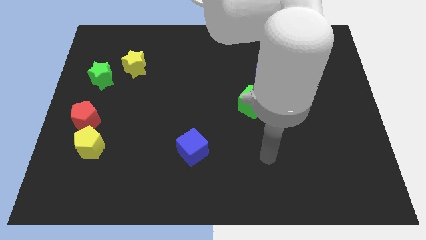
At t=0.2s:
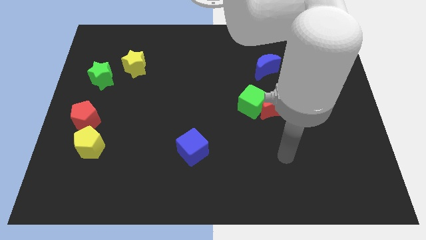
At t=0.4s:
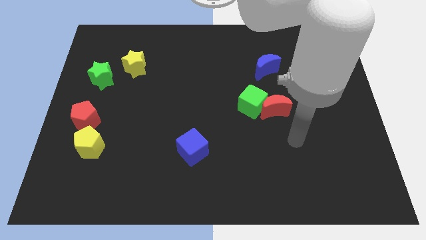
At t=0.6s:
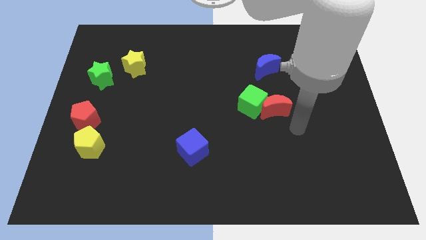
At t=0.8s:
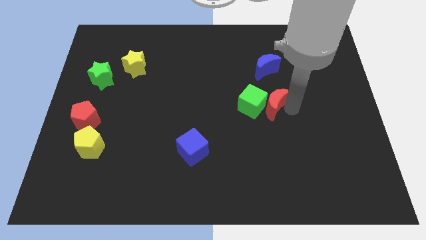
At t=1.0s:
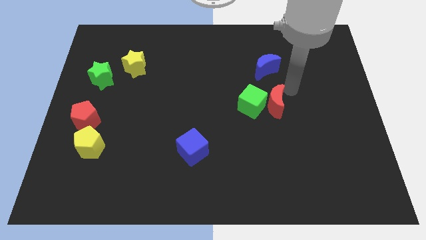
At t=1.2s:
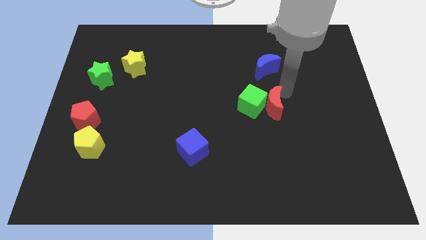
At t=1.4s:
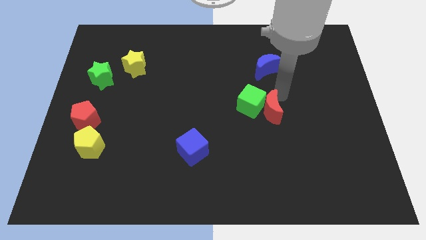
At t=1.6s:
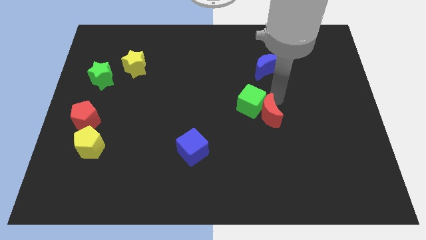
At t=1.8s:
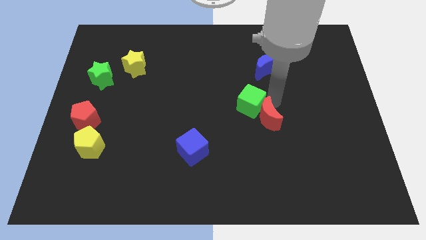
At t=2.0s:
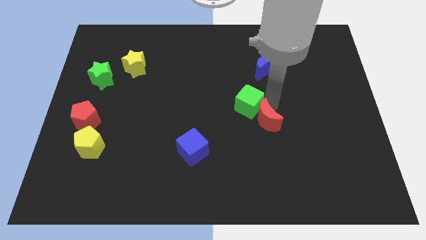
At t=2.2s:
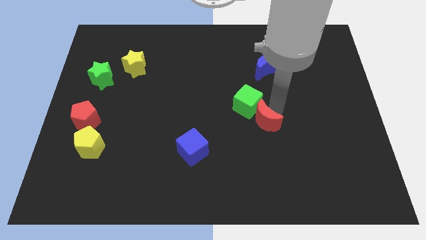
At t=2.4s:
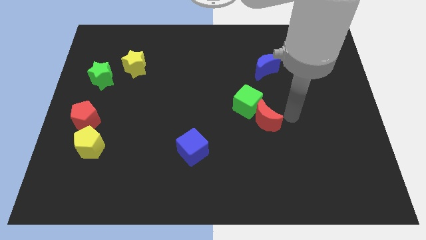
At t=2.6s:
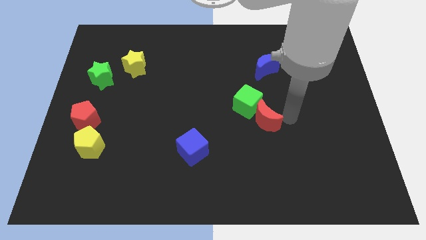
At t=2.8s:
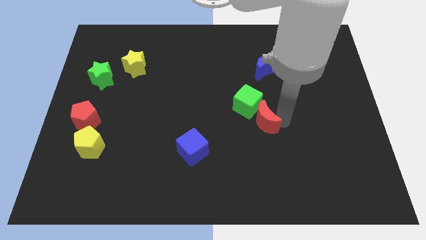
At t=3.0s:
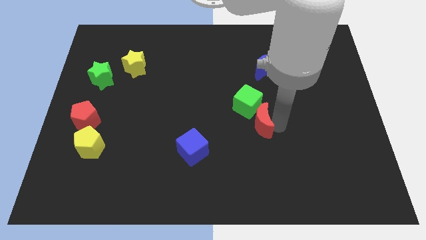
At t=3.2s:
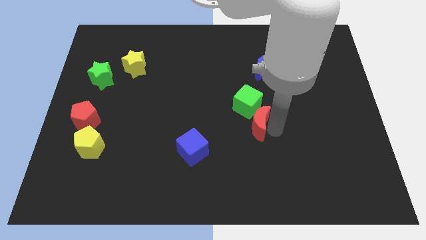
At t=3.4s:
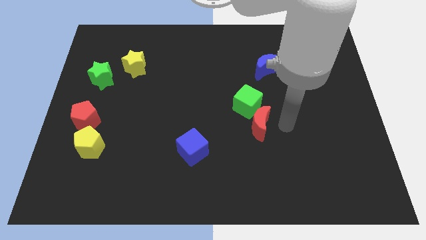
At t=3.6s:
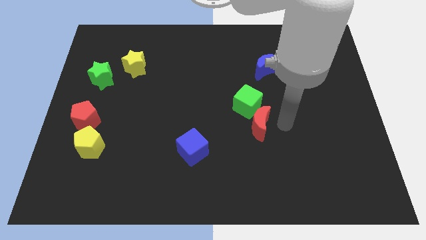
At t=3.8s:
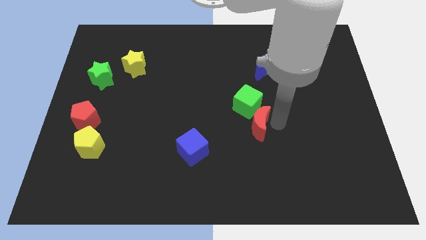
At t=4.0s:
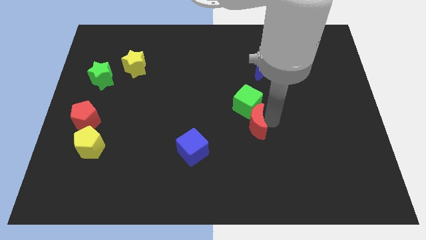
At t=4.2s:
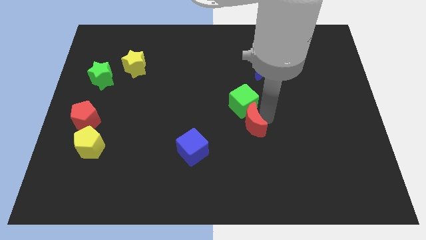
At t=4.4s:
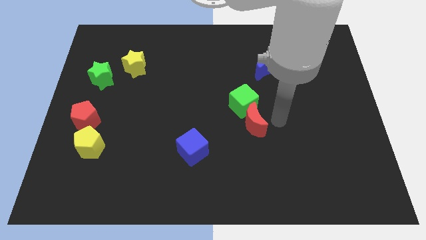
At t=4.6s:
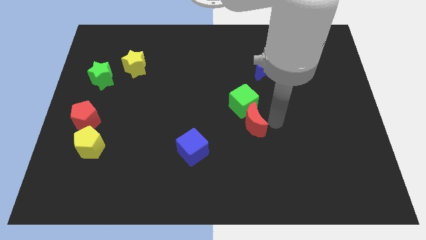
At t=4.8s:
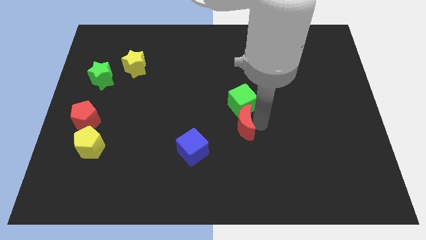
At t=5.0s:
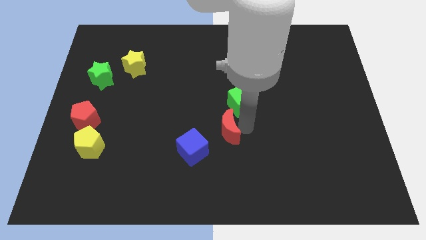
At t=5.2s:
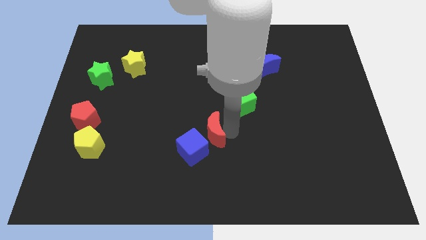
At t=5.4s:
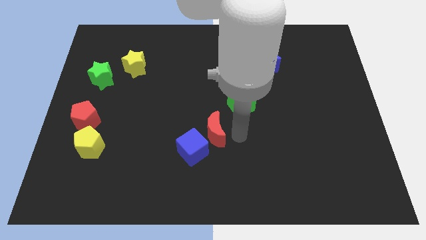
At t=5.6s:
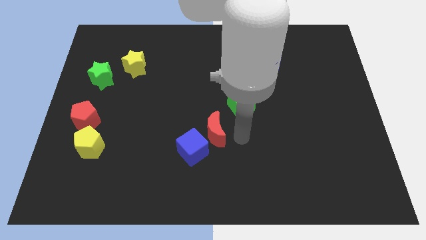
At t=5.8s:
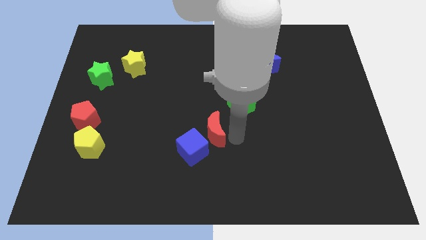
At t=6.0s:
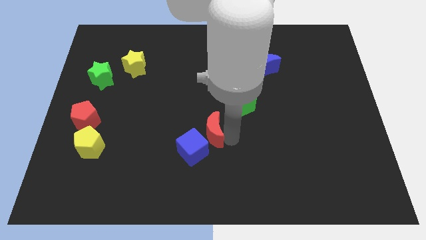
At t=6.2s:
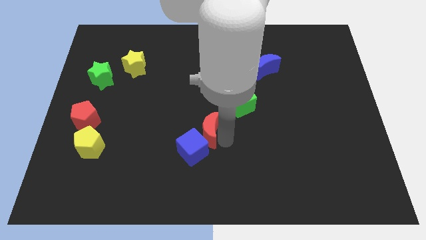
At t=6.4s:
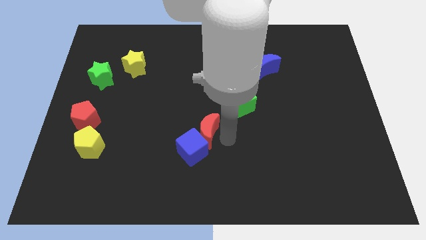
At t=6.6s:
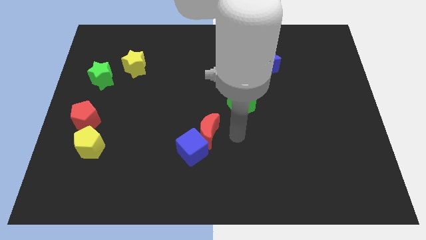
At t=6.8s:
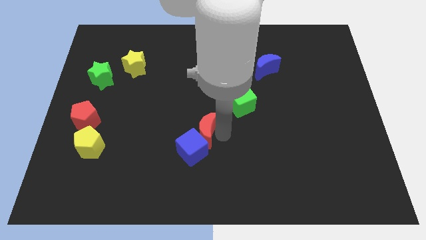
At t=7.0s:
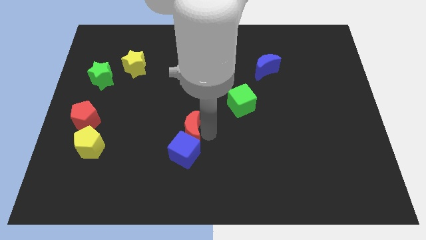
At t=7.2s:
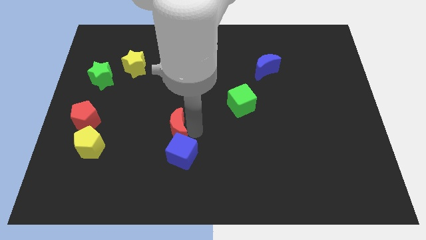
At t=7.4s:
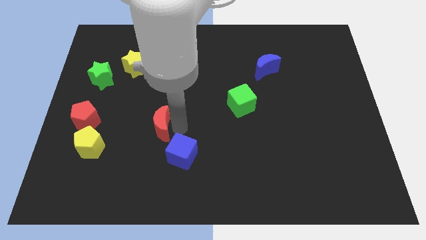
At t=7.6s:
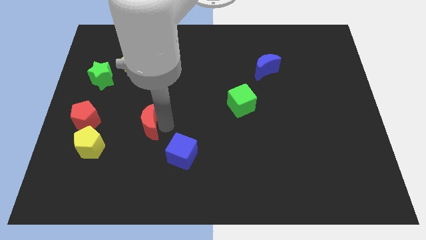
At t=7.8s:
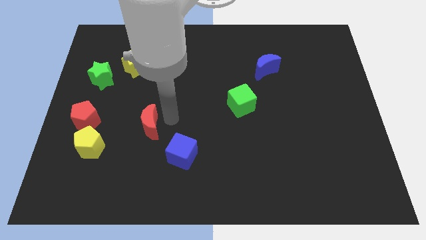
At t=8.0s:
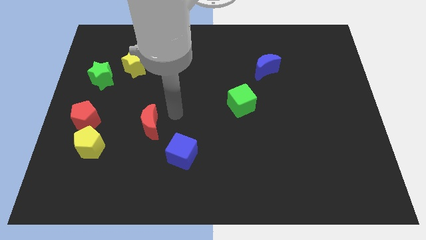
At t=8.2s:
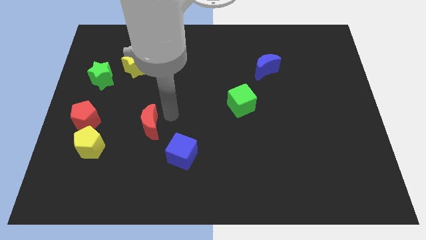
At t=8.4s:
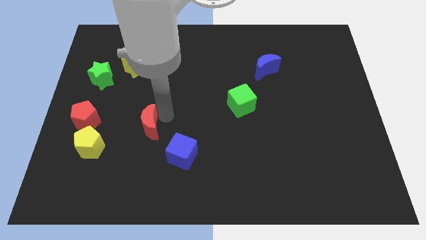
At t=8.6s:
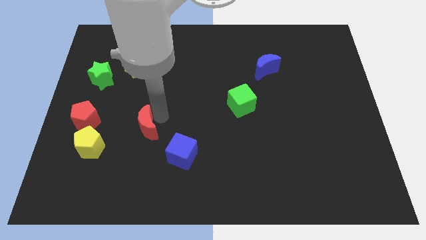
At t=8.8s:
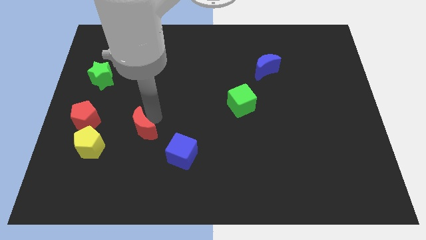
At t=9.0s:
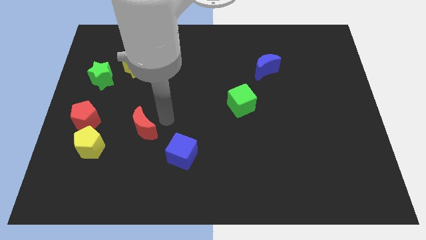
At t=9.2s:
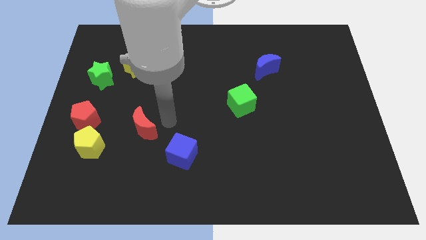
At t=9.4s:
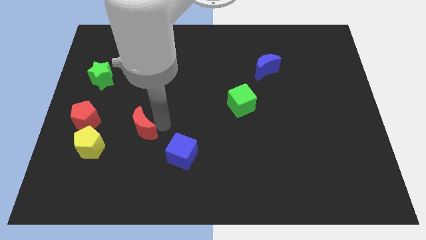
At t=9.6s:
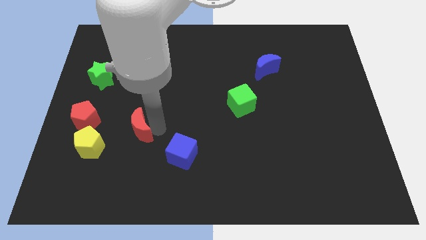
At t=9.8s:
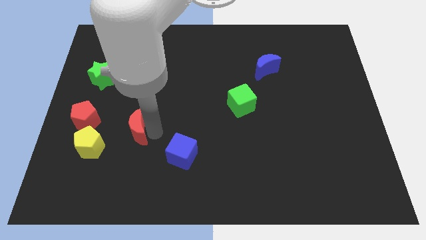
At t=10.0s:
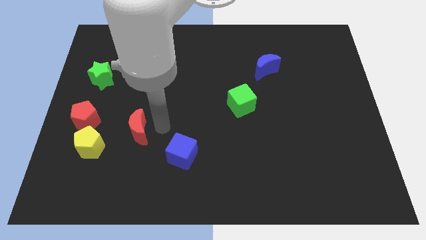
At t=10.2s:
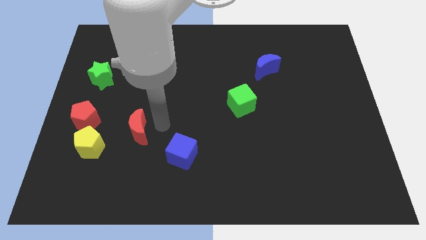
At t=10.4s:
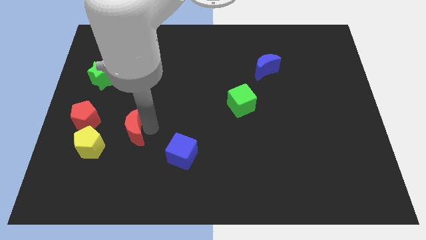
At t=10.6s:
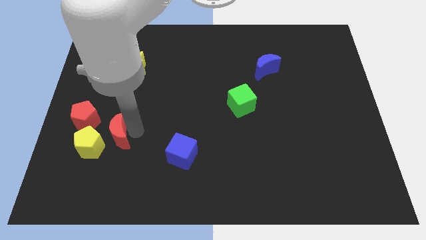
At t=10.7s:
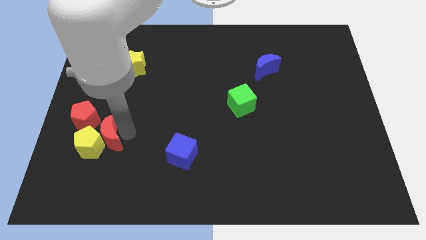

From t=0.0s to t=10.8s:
put the red moon close to the yellow pentagon

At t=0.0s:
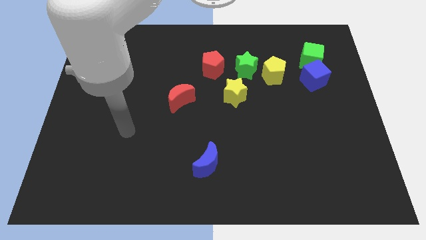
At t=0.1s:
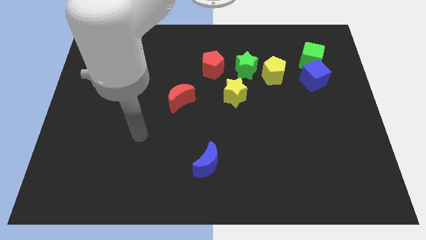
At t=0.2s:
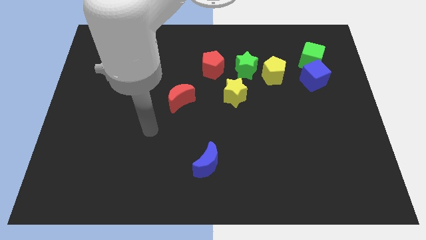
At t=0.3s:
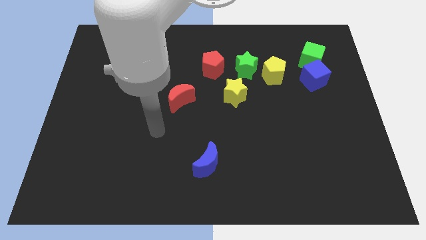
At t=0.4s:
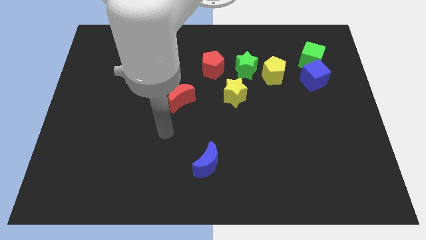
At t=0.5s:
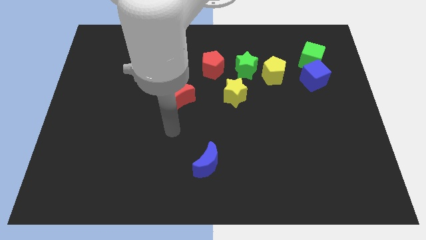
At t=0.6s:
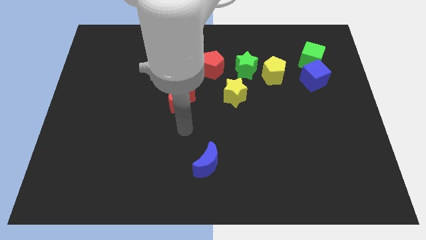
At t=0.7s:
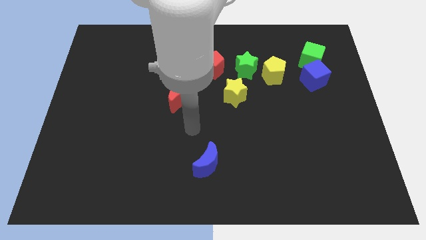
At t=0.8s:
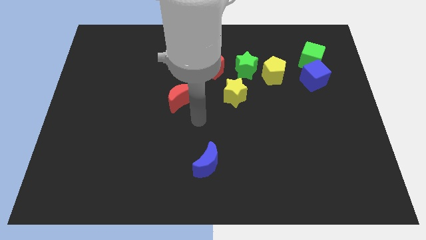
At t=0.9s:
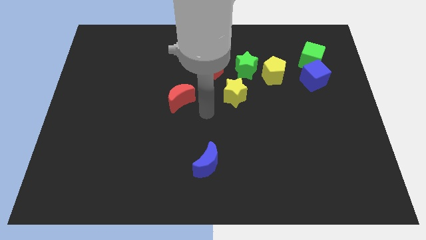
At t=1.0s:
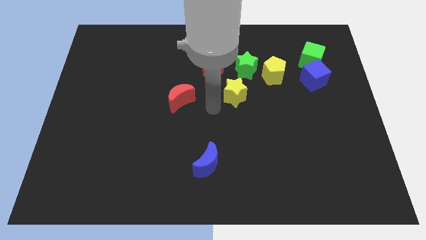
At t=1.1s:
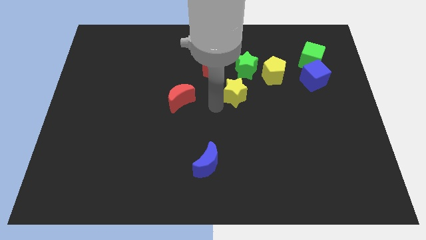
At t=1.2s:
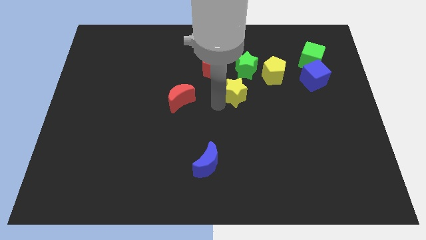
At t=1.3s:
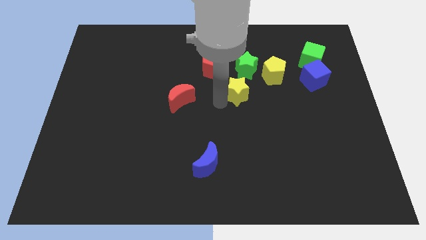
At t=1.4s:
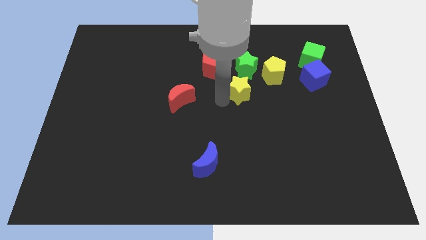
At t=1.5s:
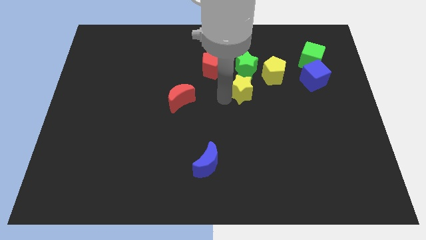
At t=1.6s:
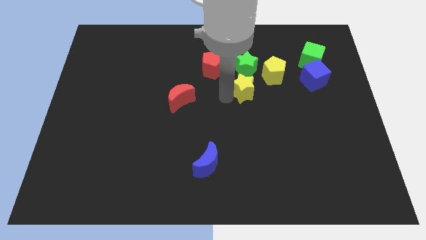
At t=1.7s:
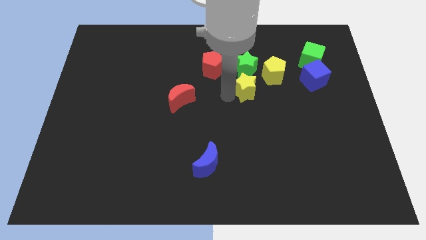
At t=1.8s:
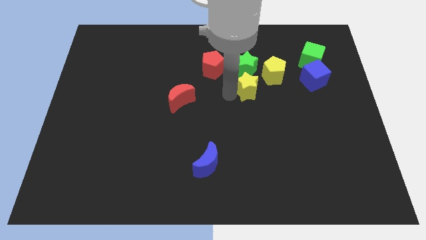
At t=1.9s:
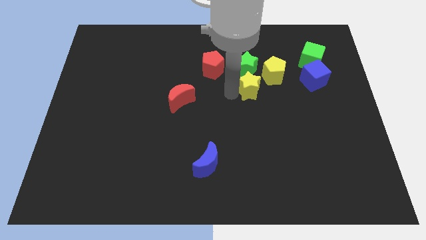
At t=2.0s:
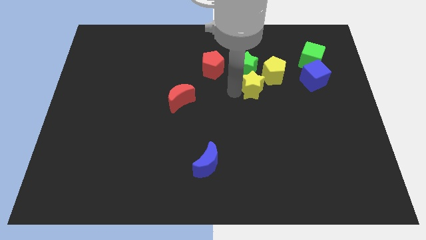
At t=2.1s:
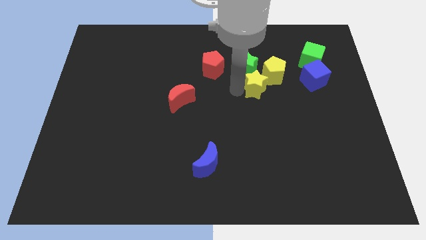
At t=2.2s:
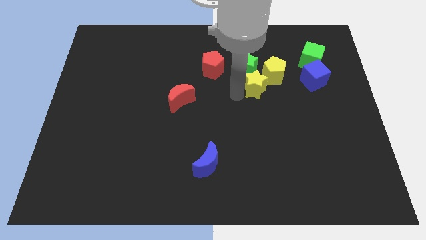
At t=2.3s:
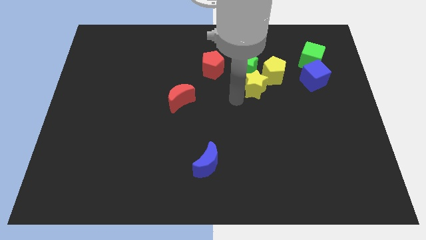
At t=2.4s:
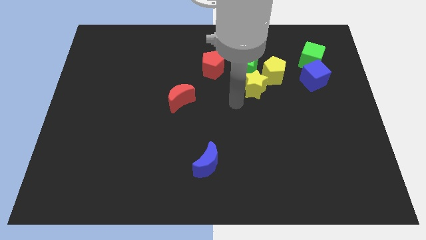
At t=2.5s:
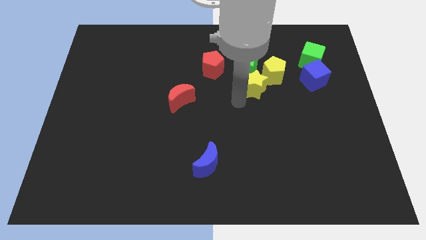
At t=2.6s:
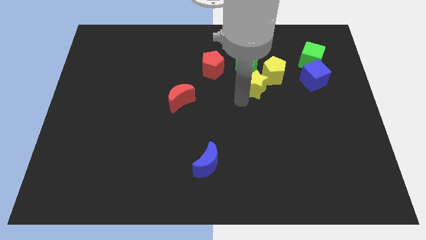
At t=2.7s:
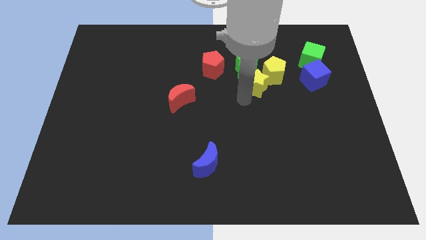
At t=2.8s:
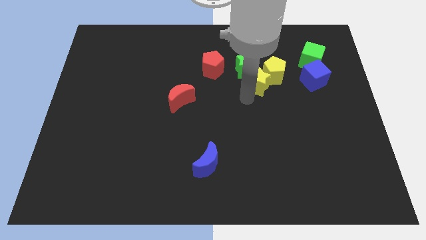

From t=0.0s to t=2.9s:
push the yellow star to the yellow pentagon
